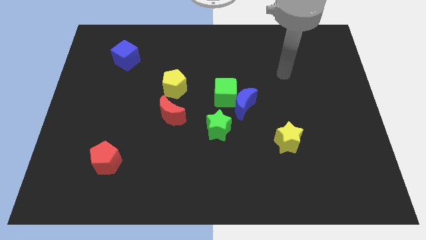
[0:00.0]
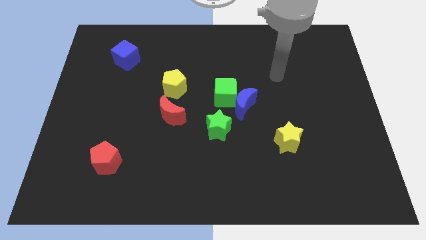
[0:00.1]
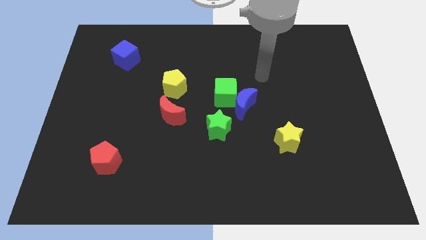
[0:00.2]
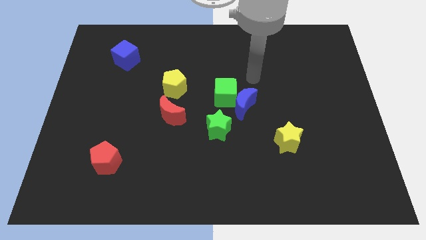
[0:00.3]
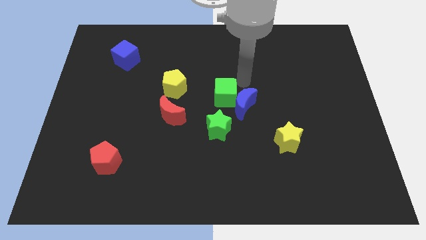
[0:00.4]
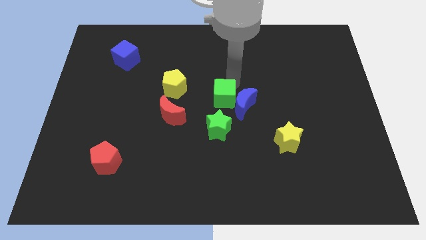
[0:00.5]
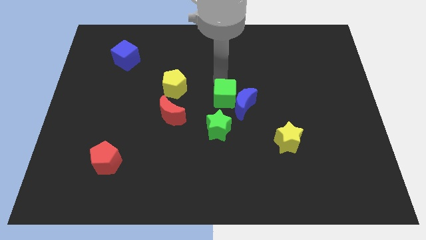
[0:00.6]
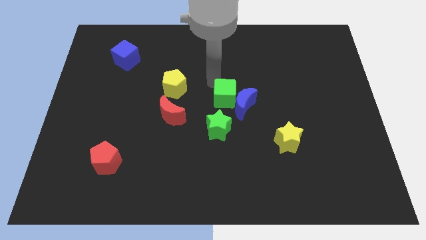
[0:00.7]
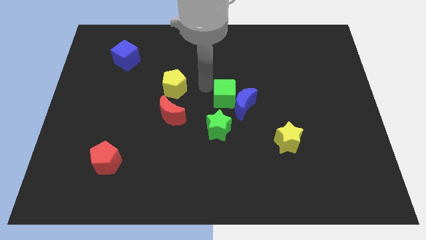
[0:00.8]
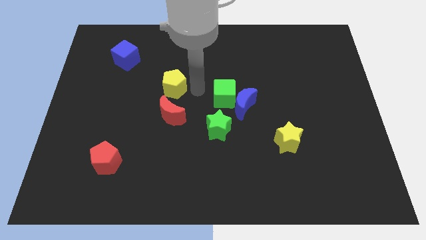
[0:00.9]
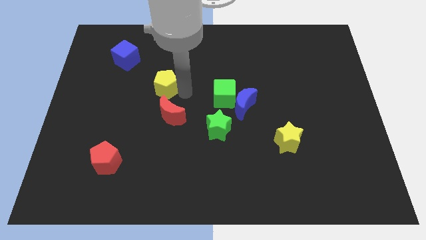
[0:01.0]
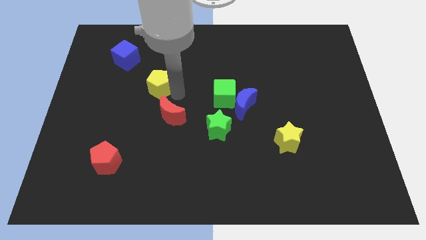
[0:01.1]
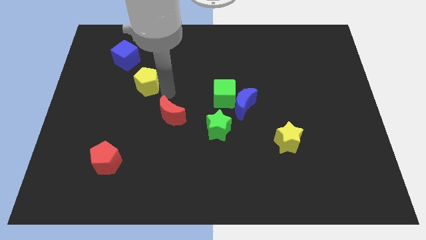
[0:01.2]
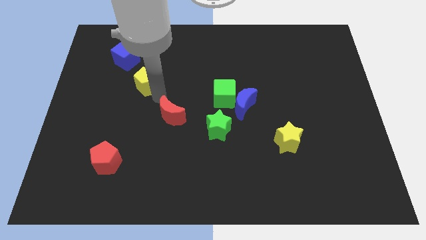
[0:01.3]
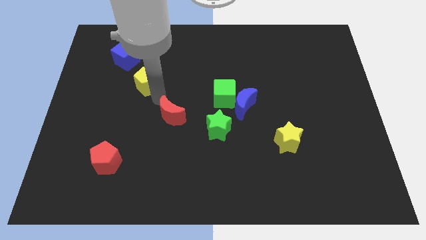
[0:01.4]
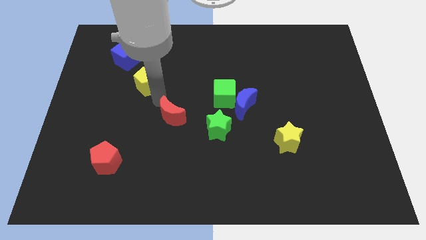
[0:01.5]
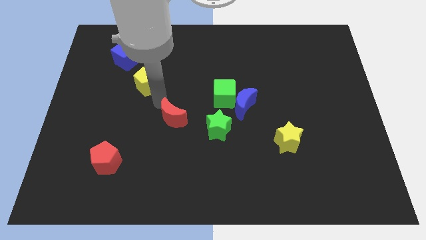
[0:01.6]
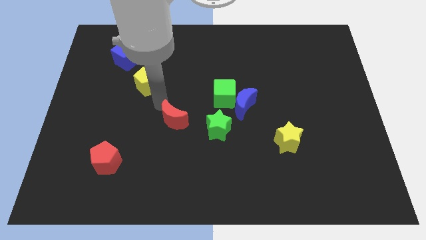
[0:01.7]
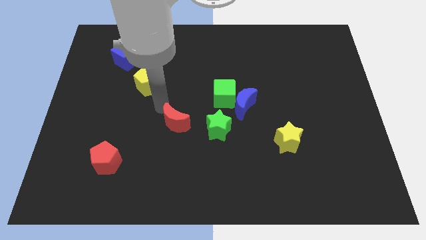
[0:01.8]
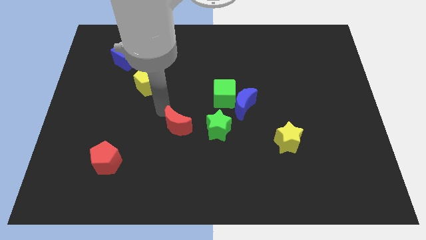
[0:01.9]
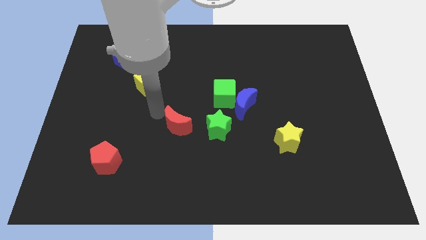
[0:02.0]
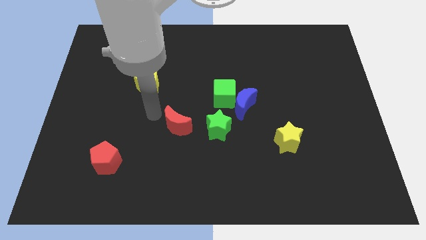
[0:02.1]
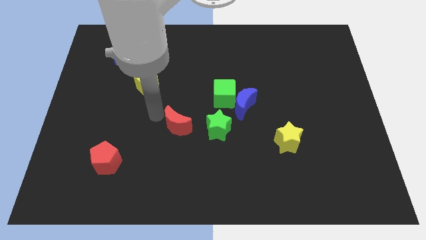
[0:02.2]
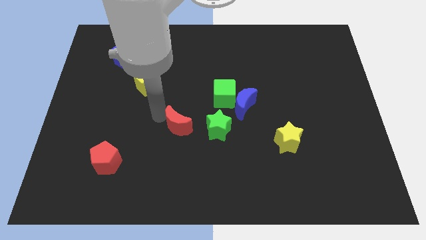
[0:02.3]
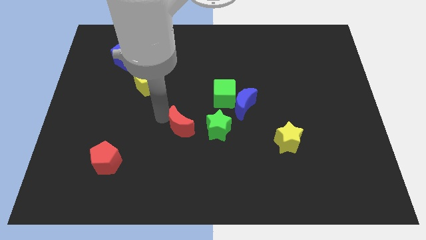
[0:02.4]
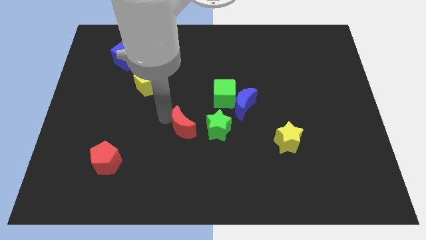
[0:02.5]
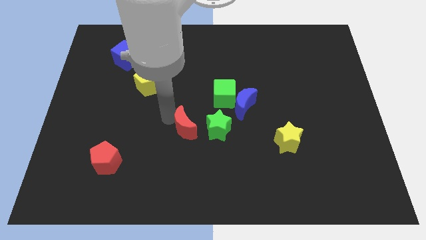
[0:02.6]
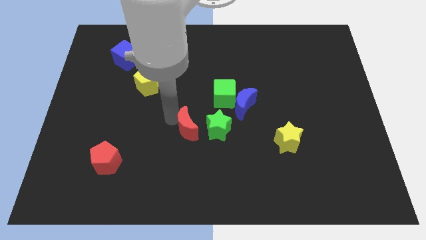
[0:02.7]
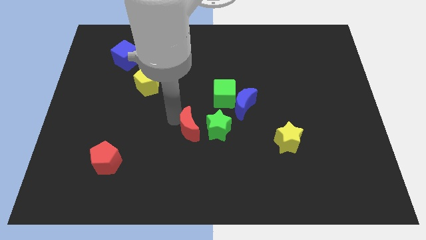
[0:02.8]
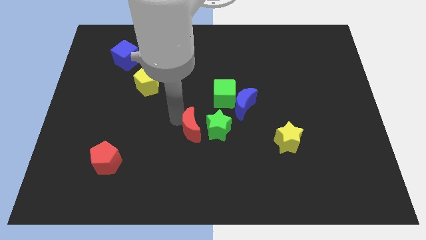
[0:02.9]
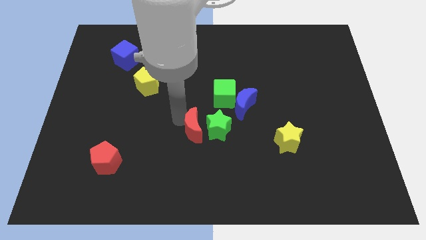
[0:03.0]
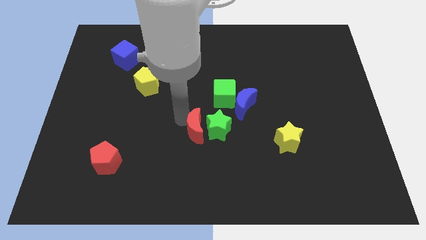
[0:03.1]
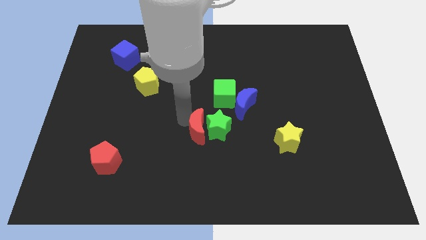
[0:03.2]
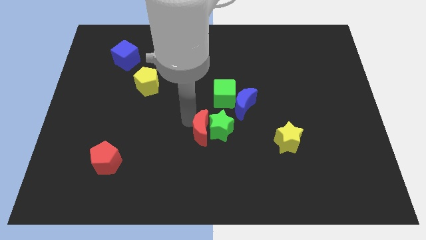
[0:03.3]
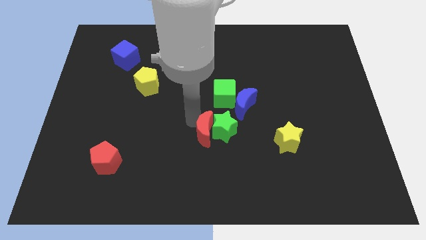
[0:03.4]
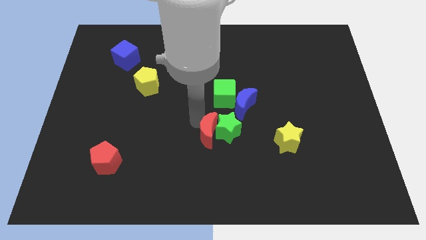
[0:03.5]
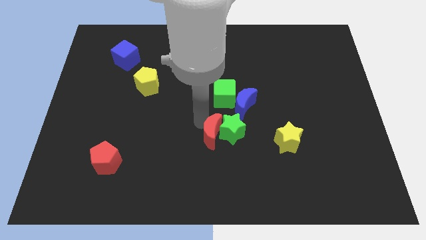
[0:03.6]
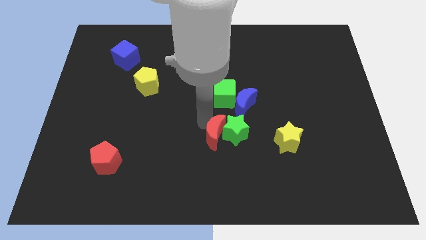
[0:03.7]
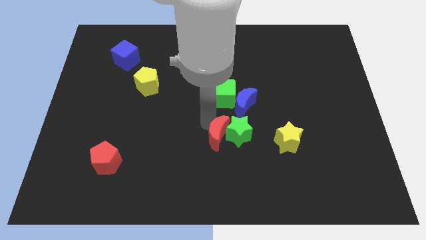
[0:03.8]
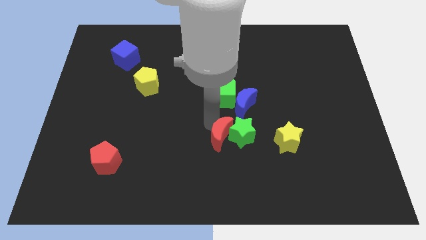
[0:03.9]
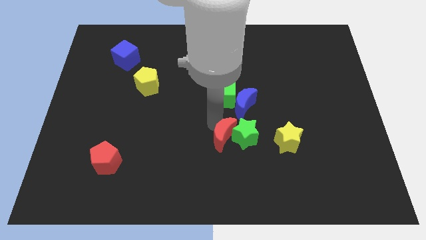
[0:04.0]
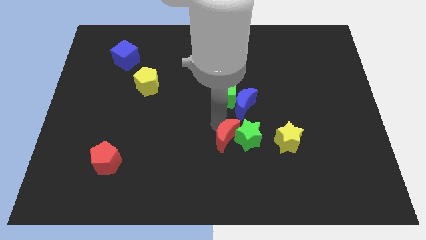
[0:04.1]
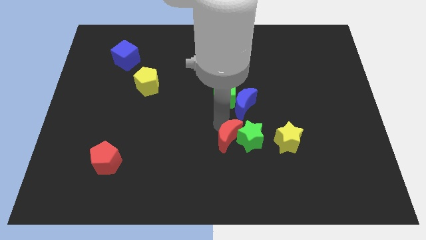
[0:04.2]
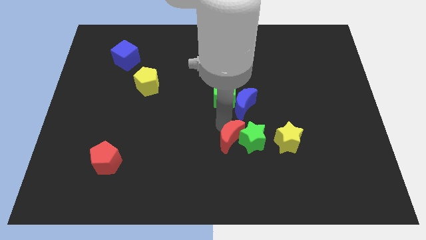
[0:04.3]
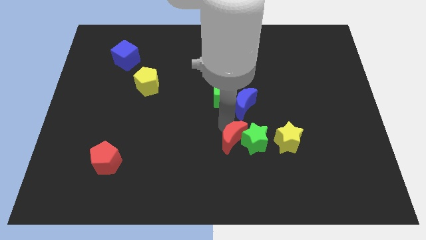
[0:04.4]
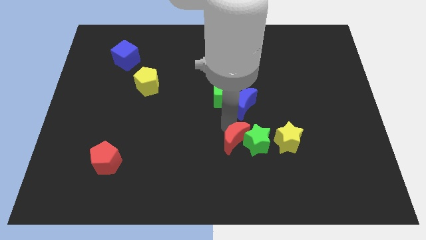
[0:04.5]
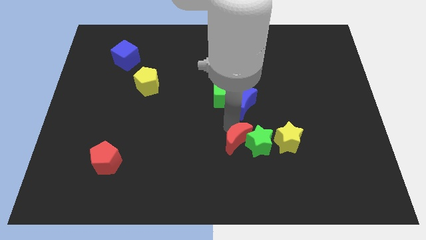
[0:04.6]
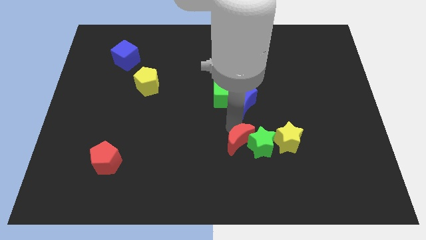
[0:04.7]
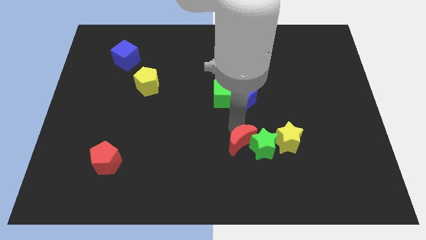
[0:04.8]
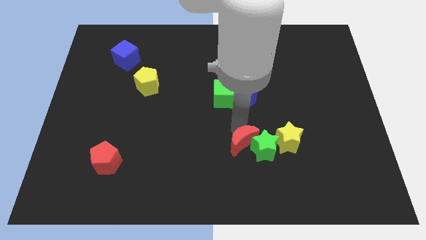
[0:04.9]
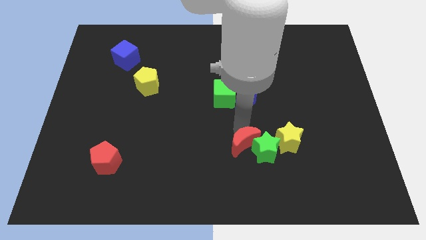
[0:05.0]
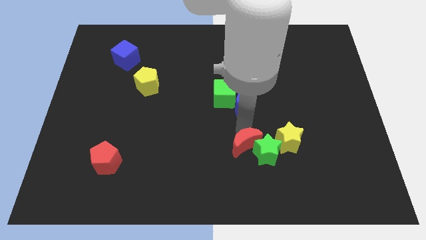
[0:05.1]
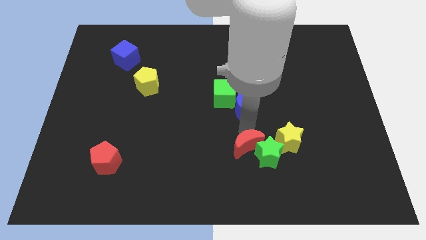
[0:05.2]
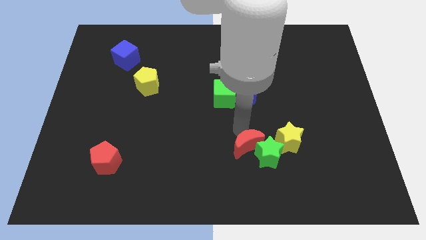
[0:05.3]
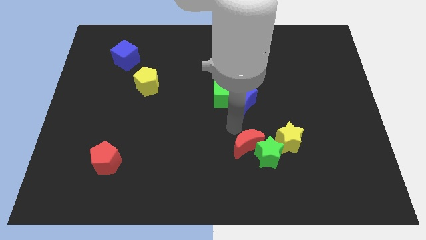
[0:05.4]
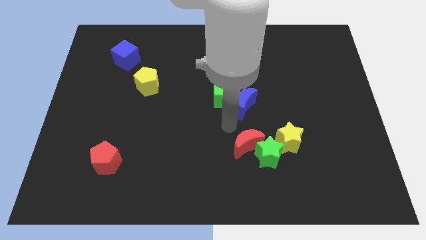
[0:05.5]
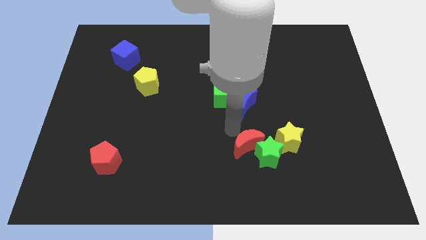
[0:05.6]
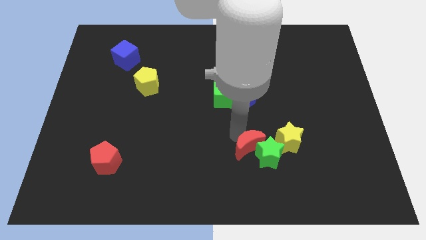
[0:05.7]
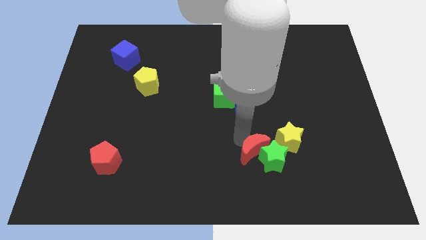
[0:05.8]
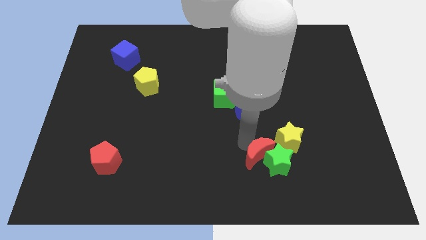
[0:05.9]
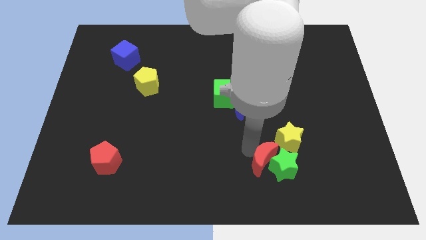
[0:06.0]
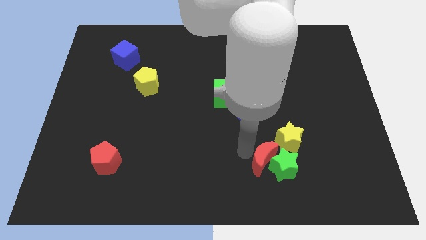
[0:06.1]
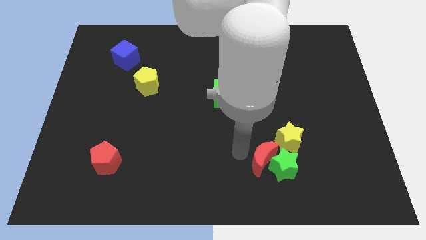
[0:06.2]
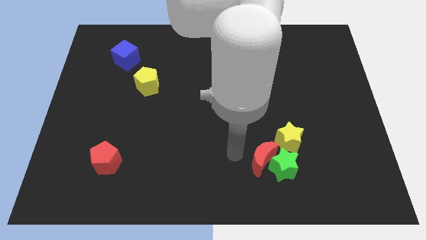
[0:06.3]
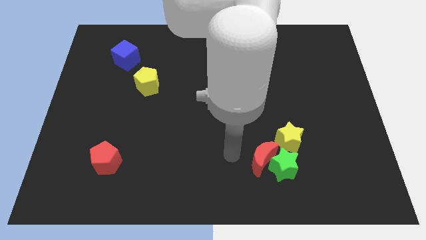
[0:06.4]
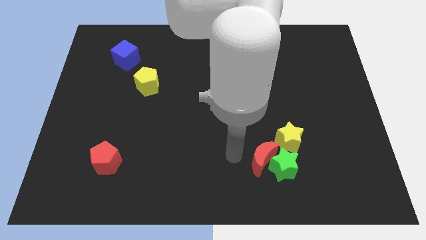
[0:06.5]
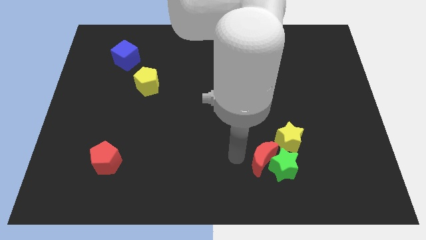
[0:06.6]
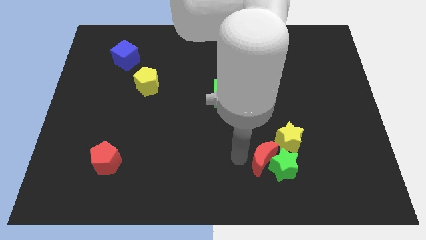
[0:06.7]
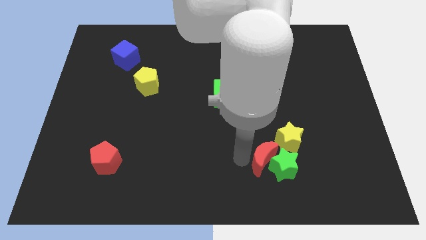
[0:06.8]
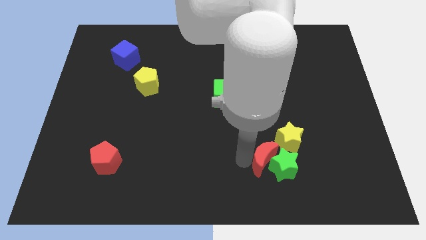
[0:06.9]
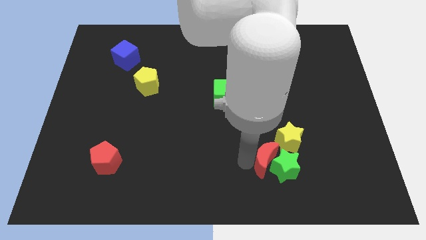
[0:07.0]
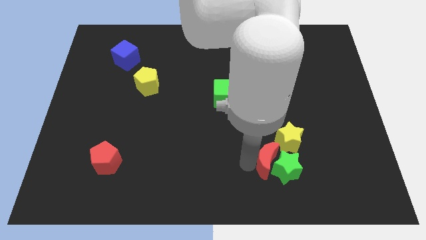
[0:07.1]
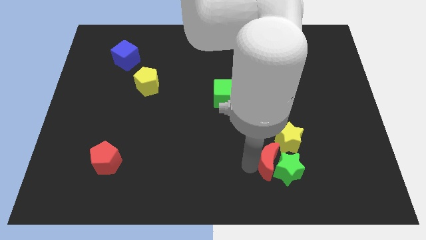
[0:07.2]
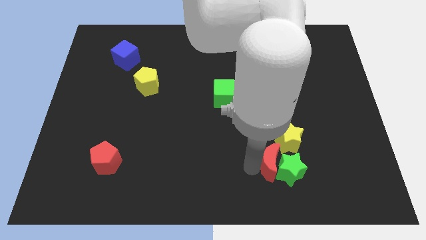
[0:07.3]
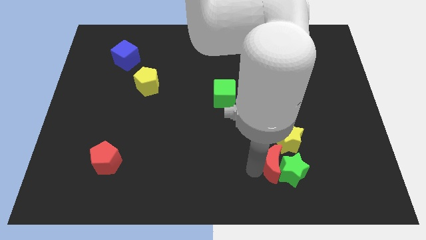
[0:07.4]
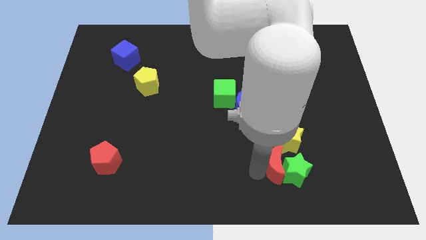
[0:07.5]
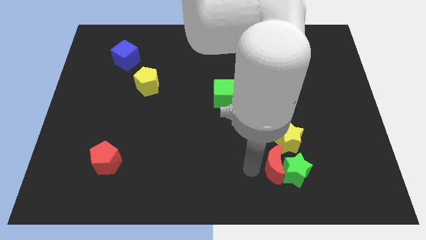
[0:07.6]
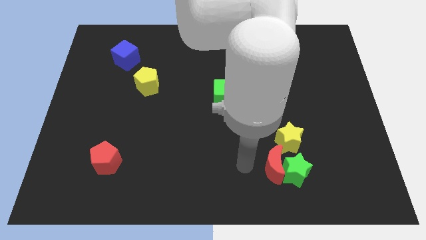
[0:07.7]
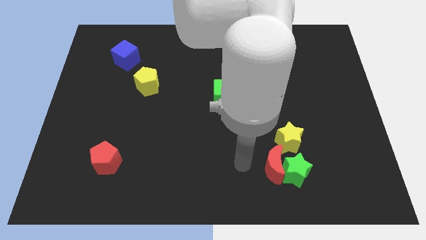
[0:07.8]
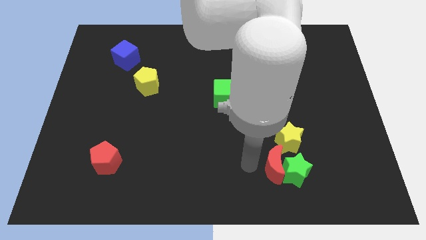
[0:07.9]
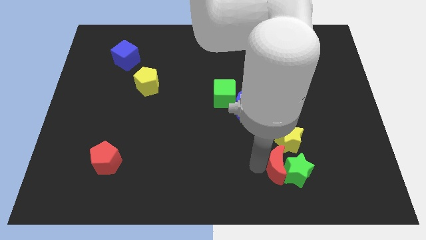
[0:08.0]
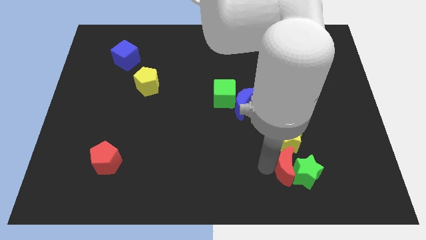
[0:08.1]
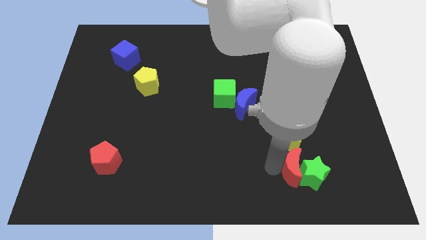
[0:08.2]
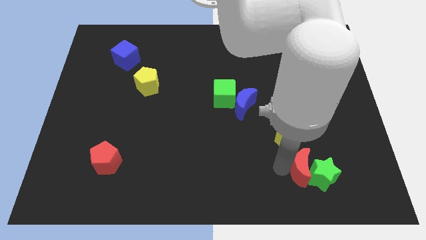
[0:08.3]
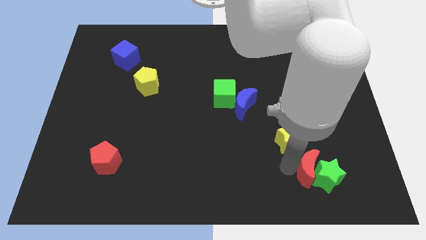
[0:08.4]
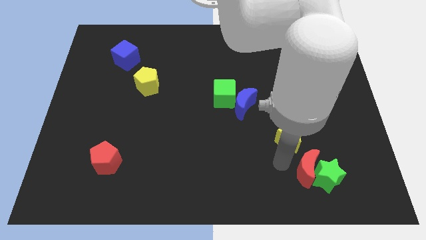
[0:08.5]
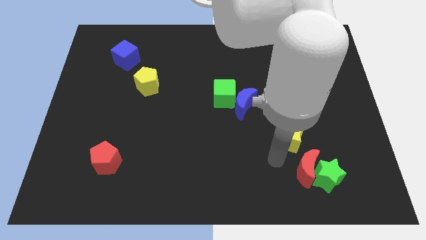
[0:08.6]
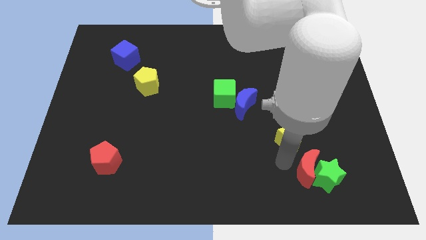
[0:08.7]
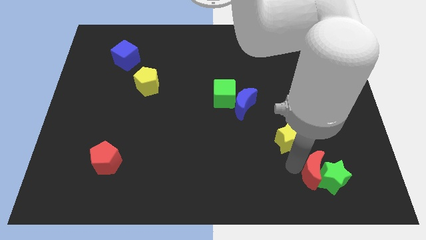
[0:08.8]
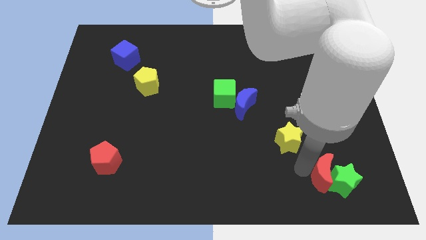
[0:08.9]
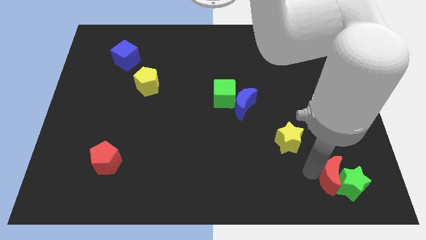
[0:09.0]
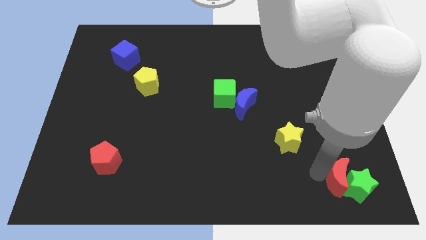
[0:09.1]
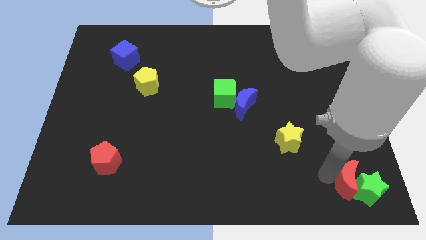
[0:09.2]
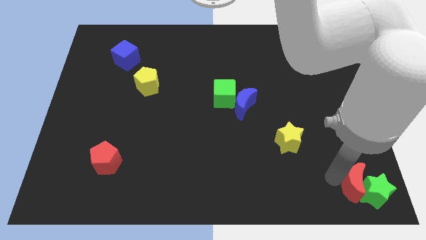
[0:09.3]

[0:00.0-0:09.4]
put the red moon to the lower right corner
